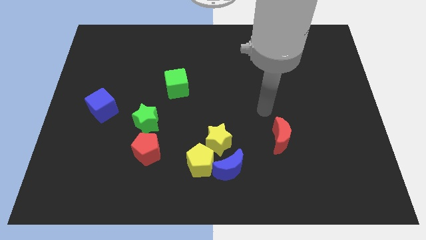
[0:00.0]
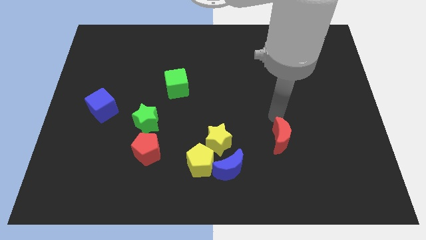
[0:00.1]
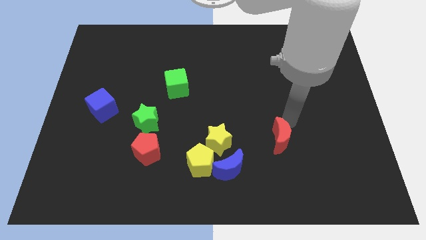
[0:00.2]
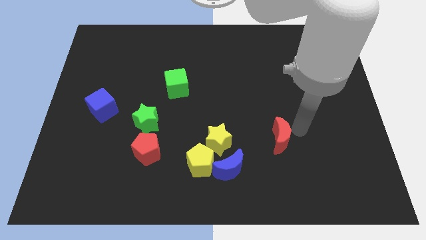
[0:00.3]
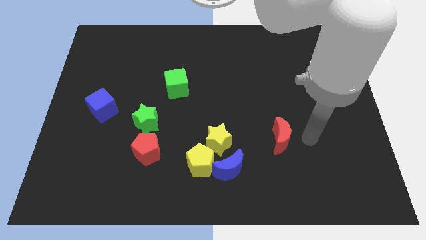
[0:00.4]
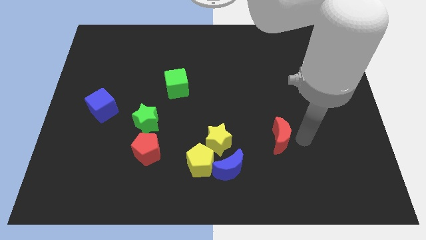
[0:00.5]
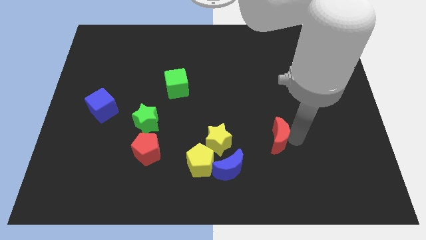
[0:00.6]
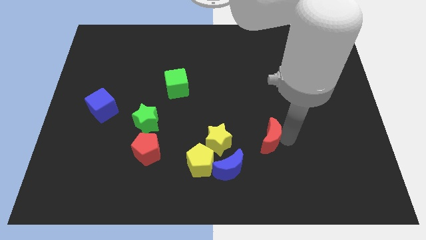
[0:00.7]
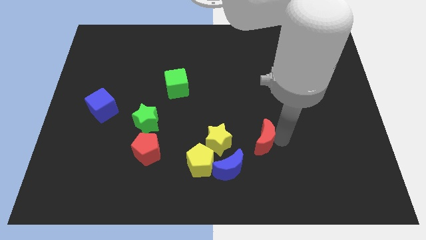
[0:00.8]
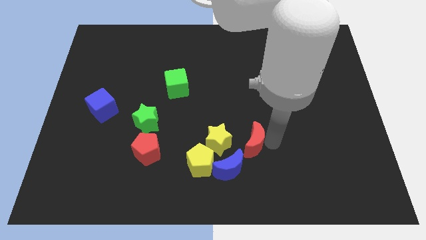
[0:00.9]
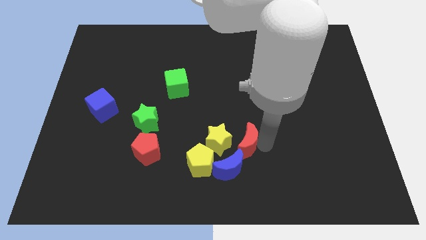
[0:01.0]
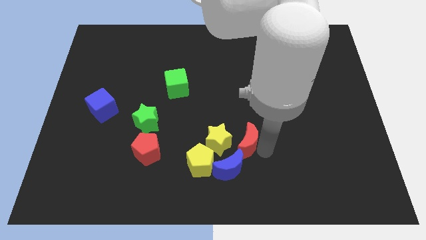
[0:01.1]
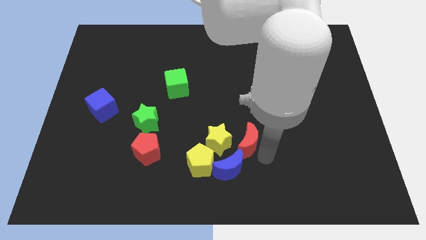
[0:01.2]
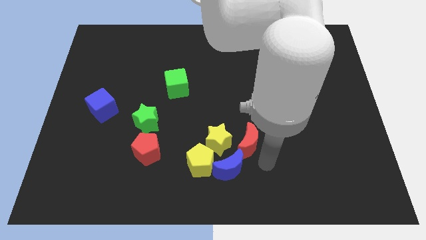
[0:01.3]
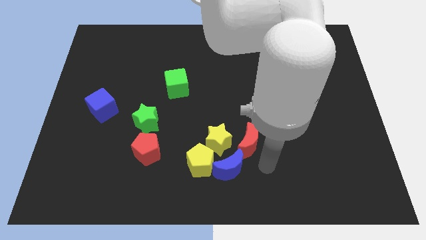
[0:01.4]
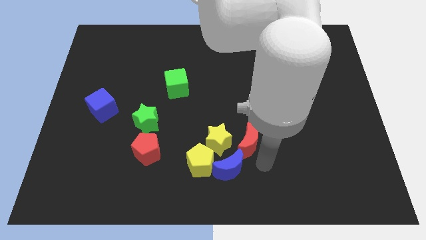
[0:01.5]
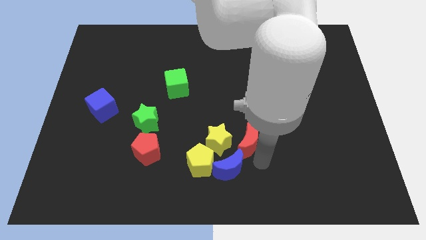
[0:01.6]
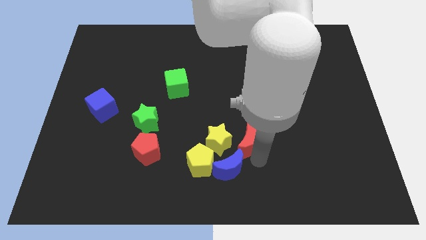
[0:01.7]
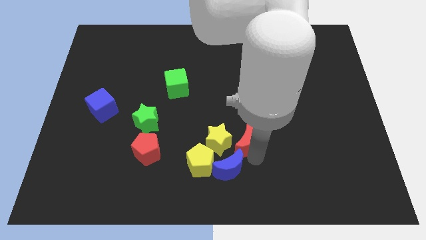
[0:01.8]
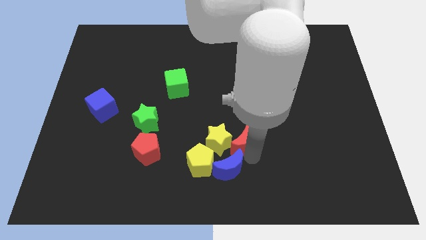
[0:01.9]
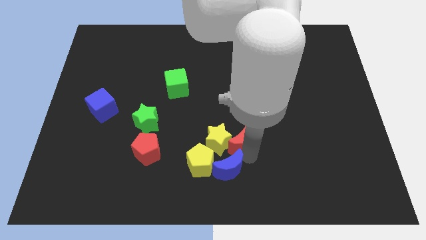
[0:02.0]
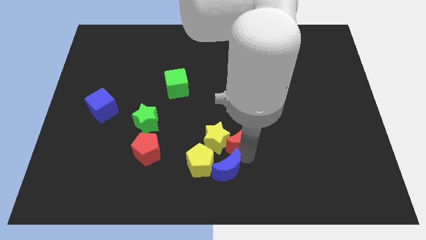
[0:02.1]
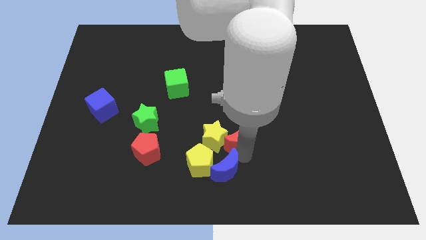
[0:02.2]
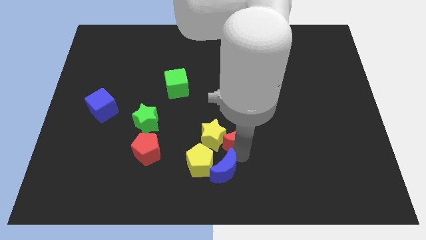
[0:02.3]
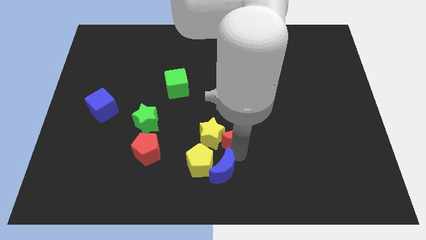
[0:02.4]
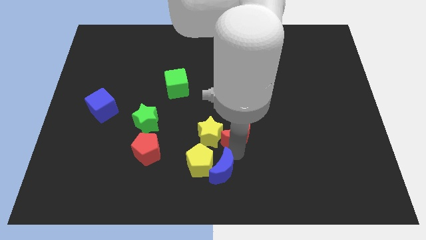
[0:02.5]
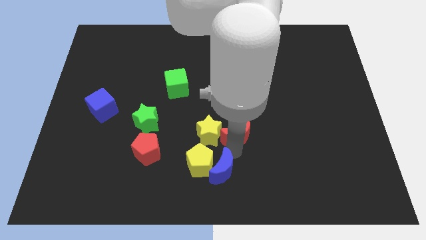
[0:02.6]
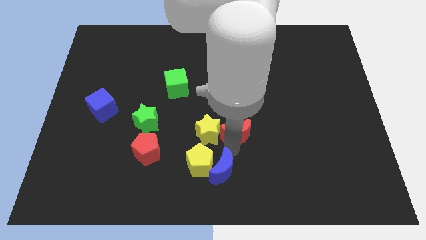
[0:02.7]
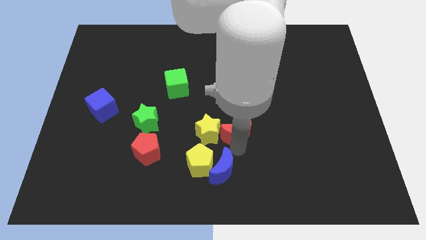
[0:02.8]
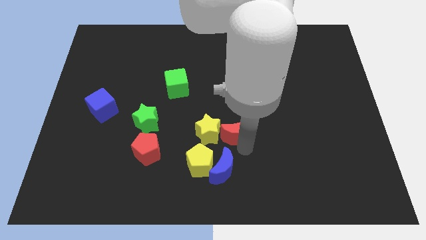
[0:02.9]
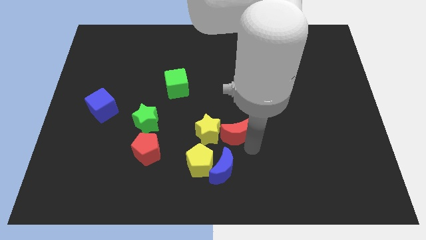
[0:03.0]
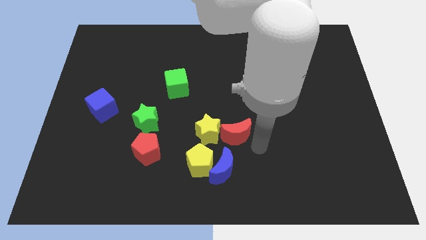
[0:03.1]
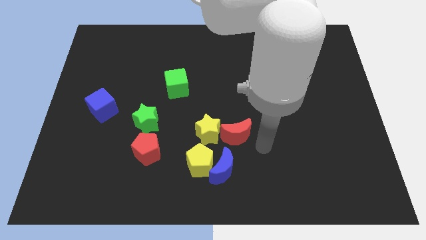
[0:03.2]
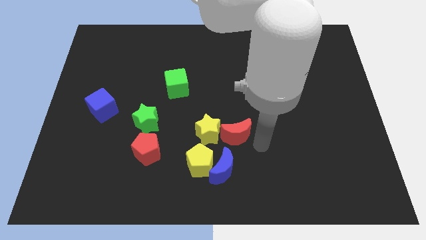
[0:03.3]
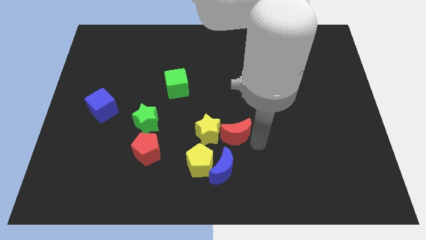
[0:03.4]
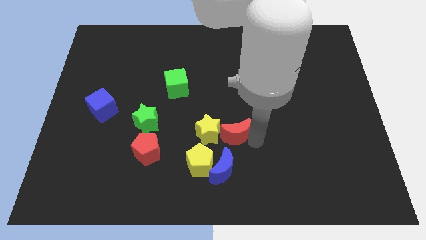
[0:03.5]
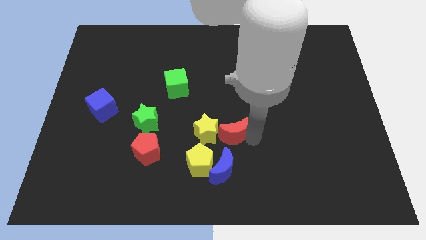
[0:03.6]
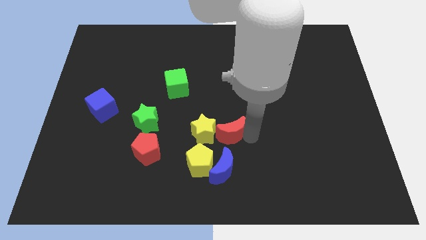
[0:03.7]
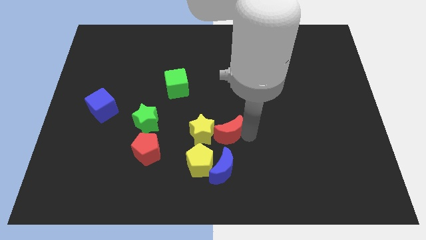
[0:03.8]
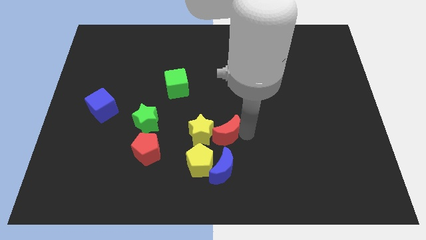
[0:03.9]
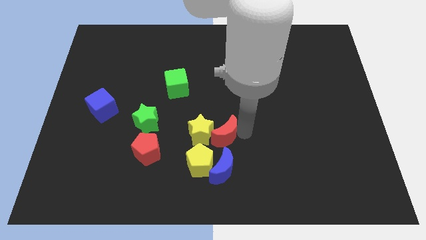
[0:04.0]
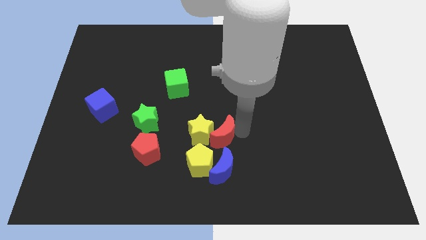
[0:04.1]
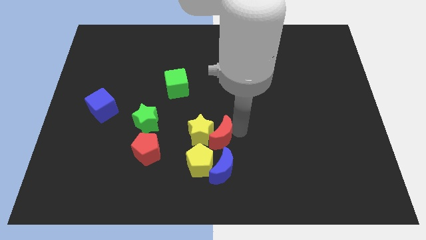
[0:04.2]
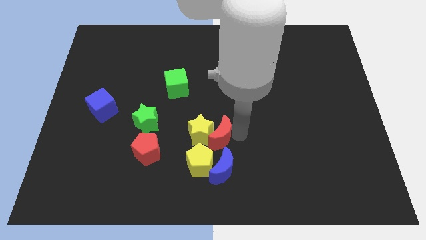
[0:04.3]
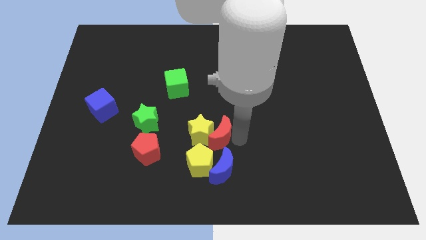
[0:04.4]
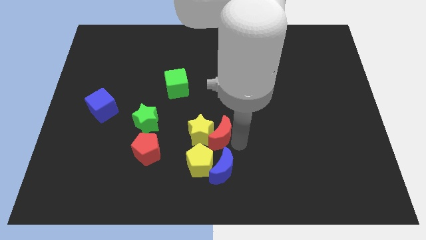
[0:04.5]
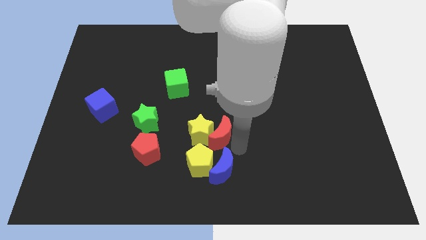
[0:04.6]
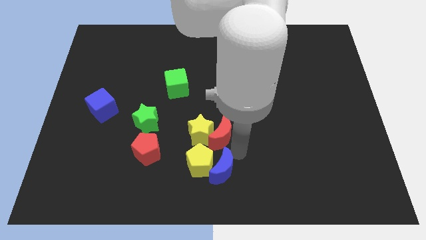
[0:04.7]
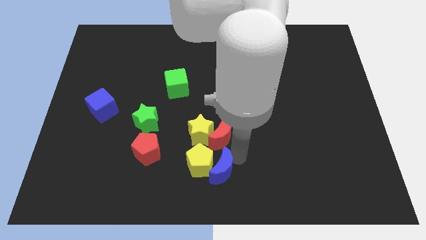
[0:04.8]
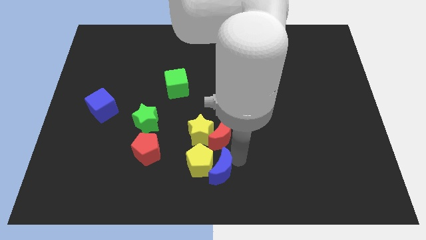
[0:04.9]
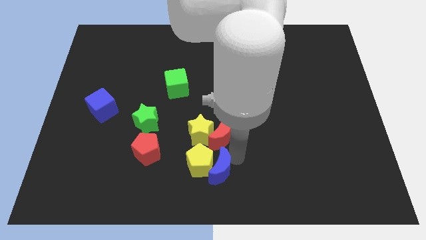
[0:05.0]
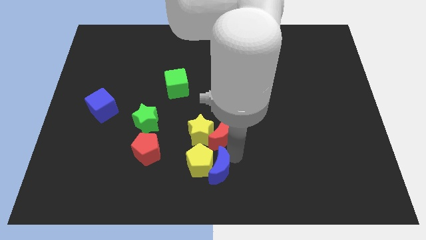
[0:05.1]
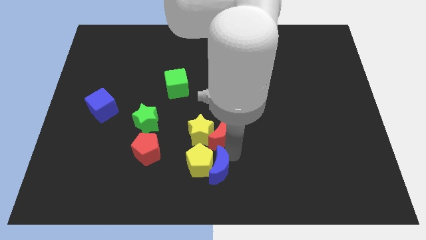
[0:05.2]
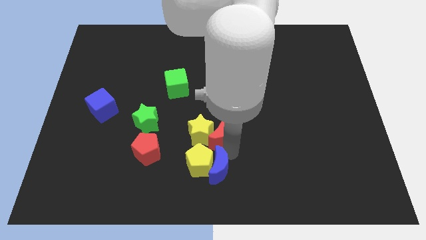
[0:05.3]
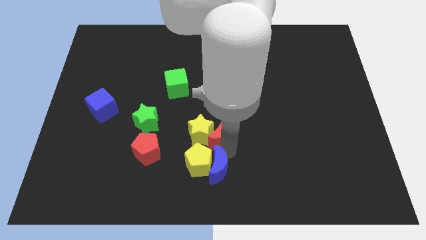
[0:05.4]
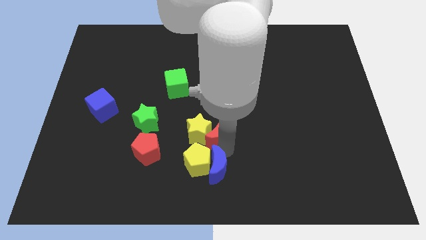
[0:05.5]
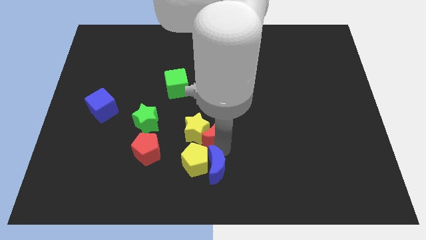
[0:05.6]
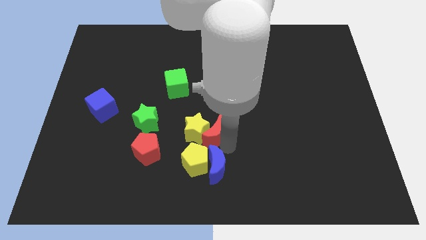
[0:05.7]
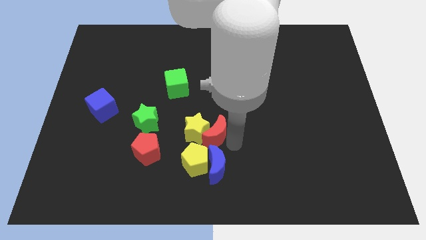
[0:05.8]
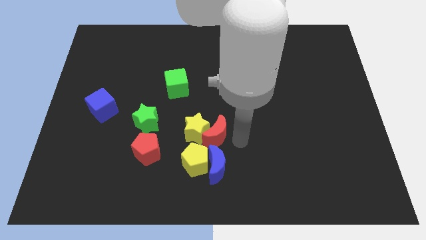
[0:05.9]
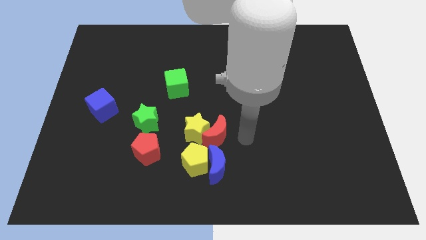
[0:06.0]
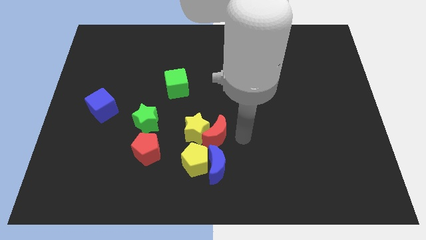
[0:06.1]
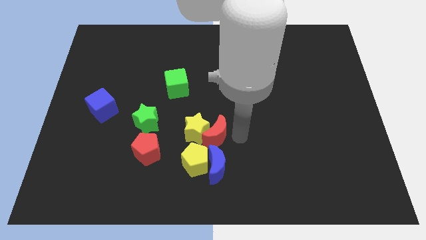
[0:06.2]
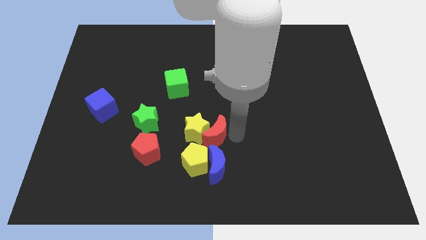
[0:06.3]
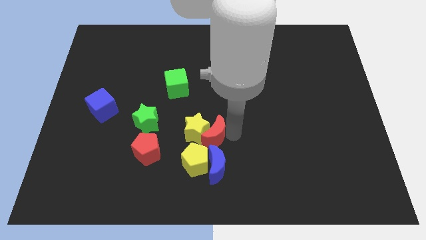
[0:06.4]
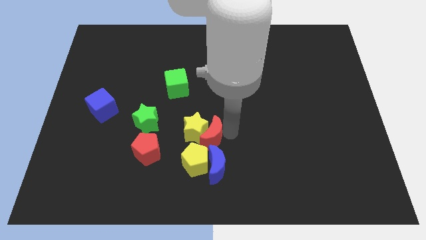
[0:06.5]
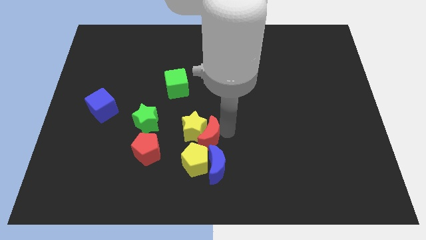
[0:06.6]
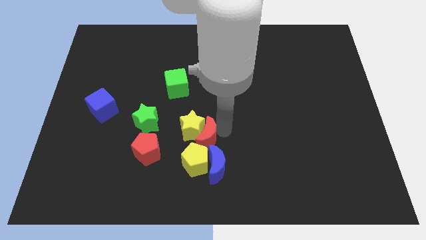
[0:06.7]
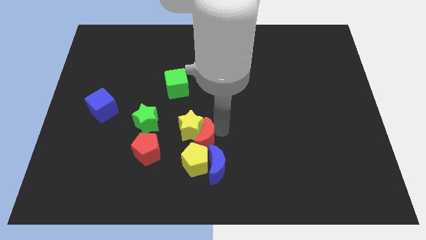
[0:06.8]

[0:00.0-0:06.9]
move the red moon next to the yellow pentagon
